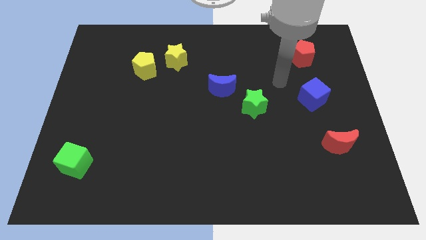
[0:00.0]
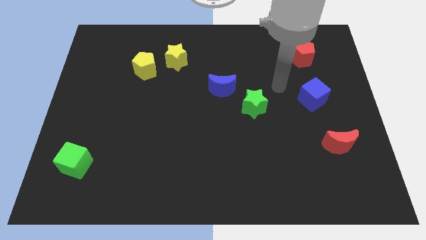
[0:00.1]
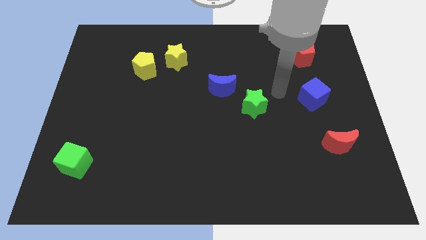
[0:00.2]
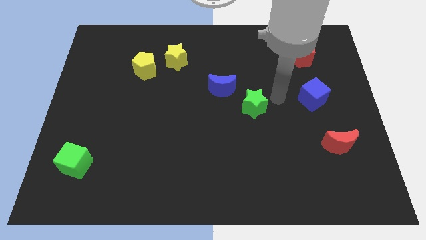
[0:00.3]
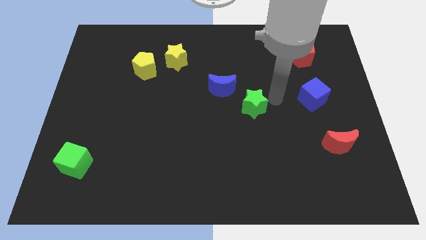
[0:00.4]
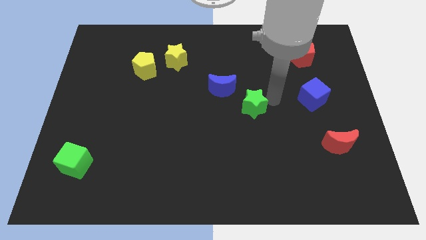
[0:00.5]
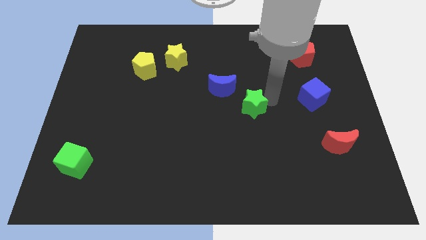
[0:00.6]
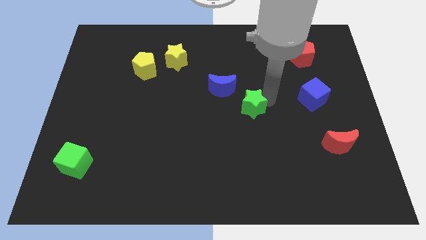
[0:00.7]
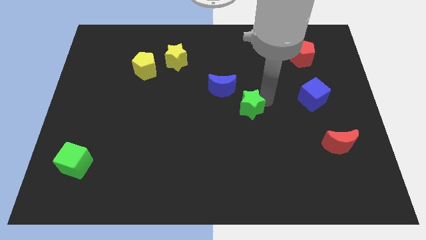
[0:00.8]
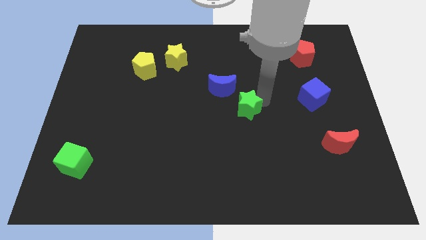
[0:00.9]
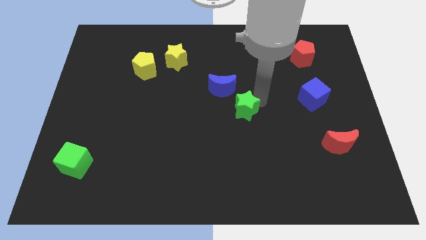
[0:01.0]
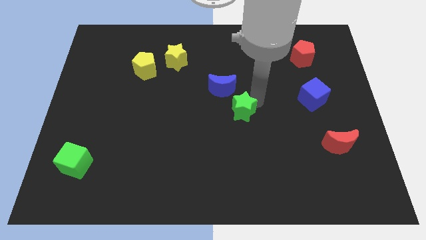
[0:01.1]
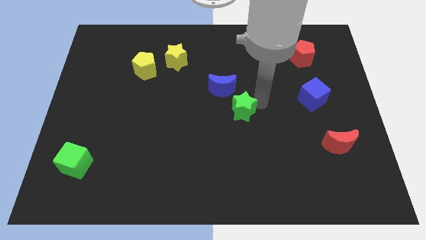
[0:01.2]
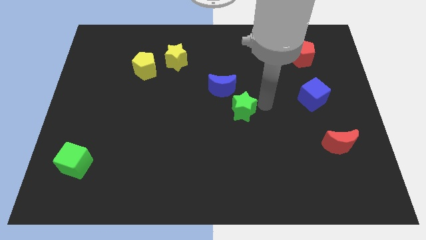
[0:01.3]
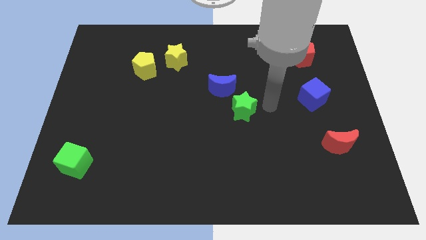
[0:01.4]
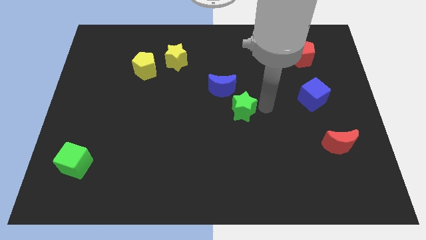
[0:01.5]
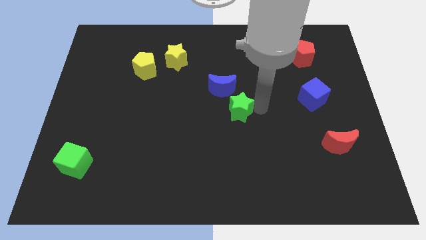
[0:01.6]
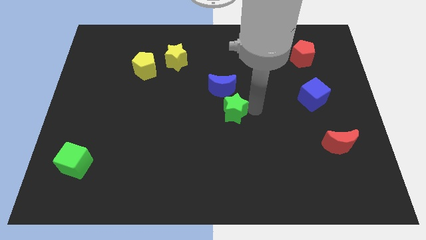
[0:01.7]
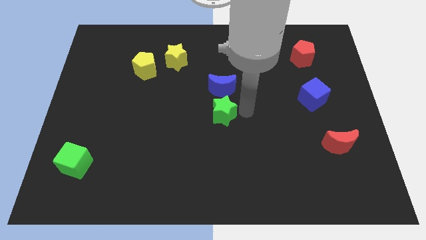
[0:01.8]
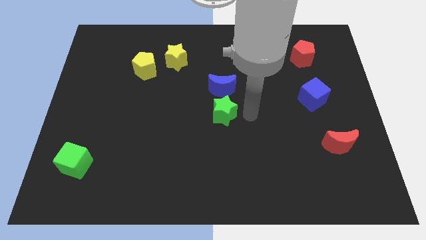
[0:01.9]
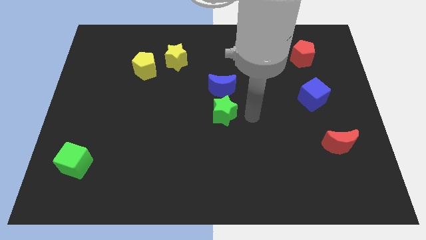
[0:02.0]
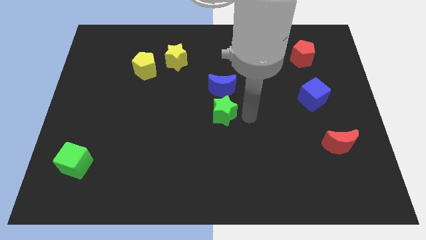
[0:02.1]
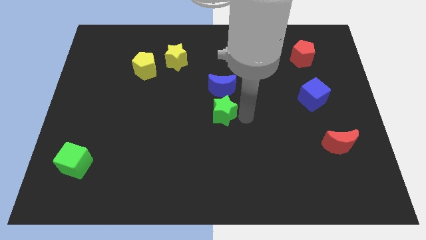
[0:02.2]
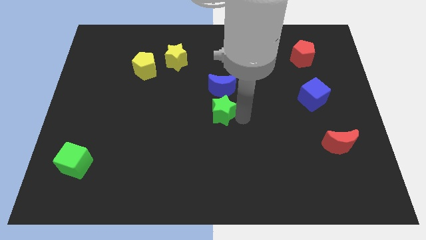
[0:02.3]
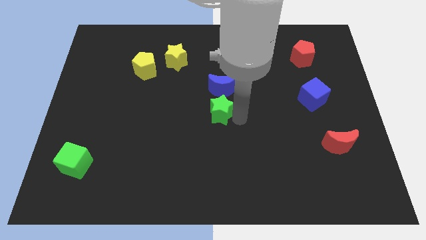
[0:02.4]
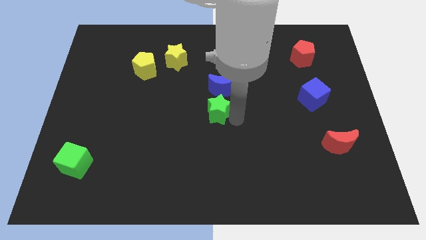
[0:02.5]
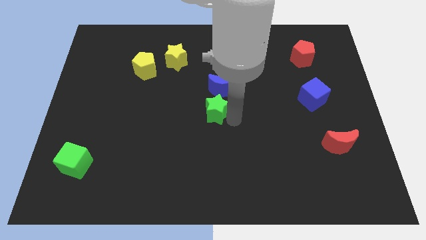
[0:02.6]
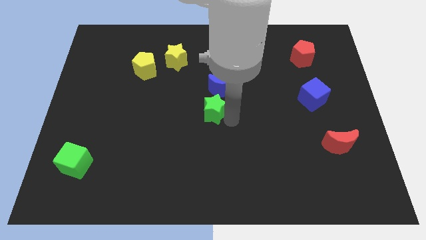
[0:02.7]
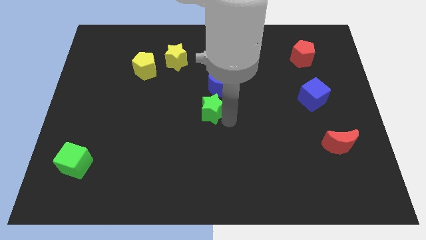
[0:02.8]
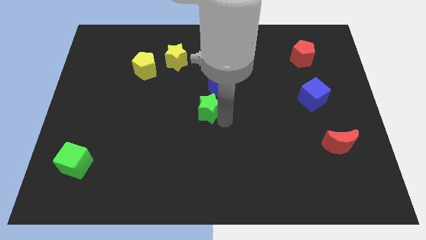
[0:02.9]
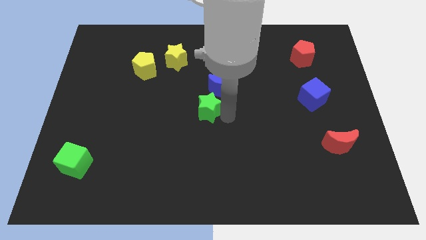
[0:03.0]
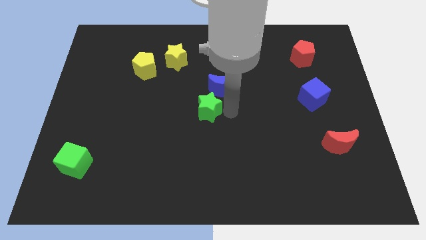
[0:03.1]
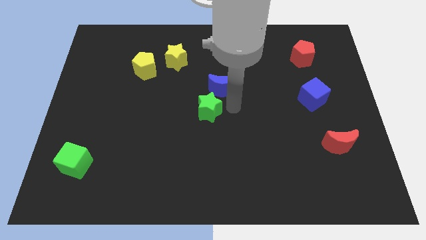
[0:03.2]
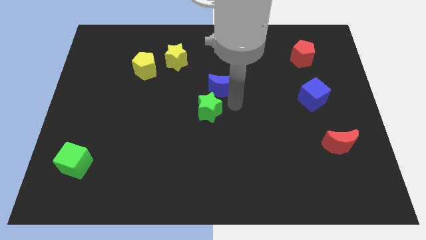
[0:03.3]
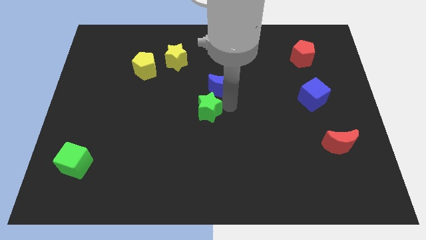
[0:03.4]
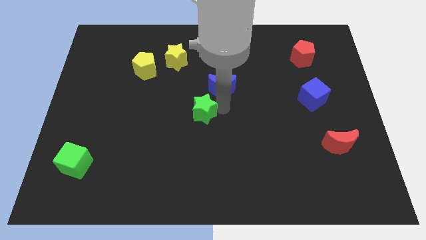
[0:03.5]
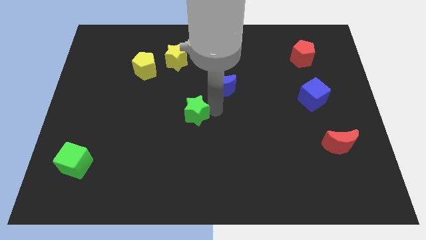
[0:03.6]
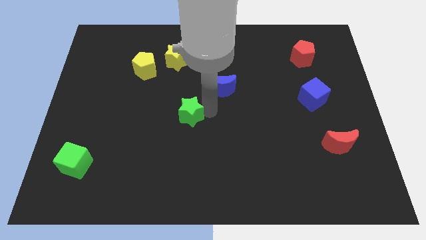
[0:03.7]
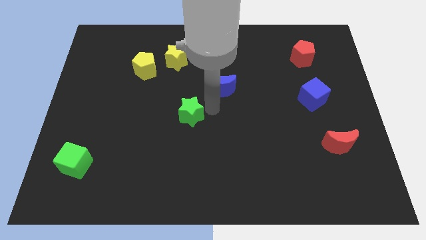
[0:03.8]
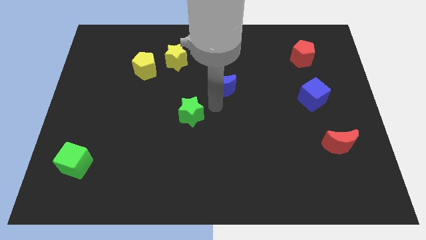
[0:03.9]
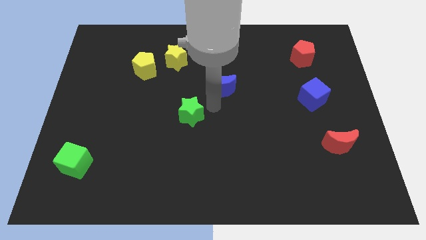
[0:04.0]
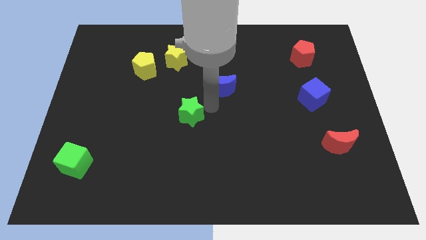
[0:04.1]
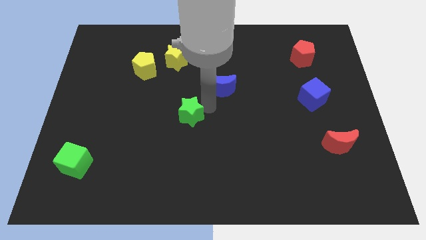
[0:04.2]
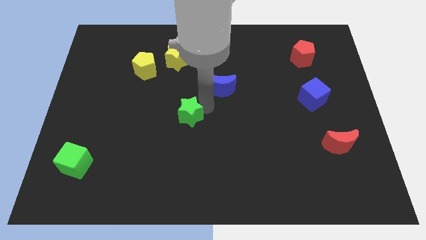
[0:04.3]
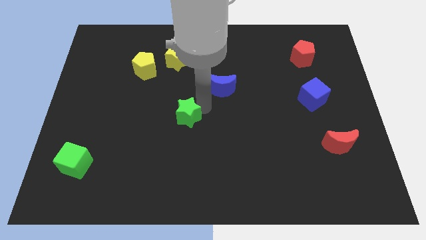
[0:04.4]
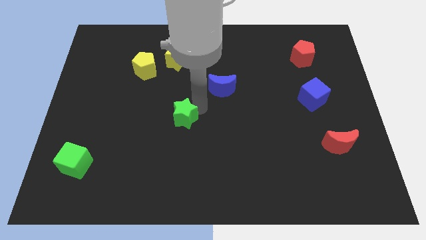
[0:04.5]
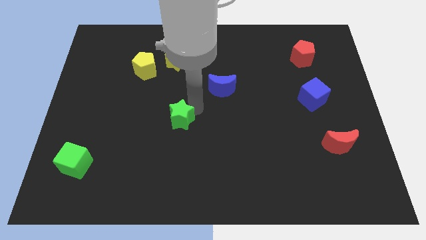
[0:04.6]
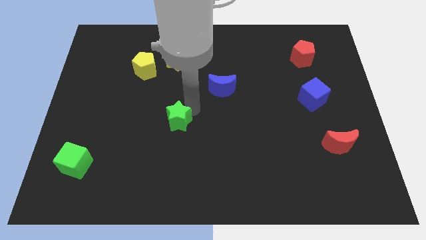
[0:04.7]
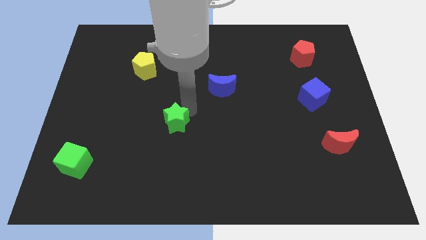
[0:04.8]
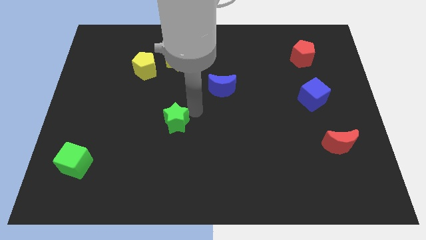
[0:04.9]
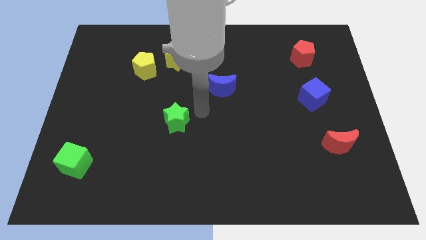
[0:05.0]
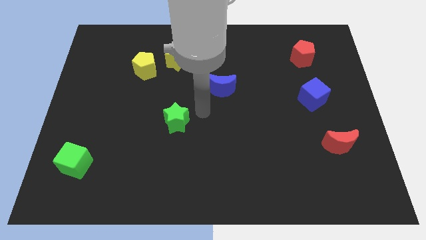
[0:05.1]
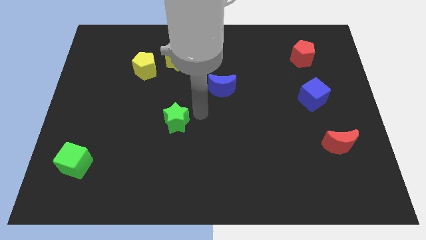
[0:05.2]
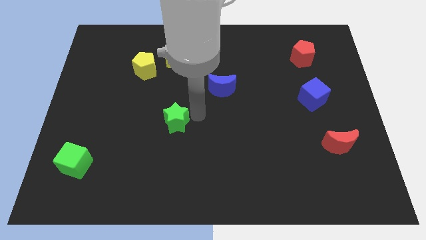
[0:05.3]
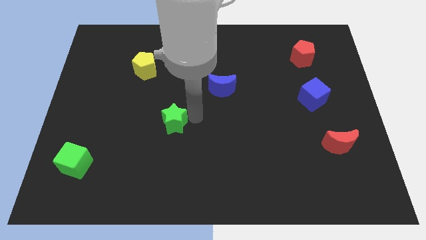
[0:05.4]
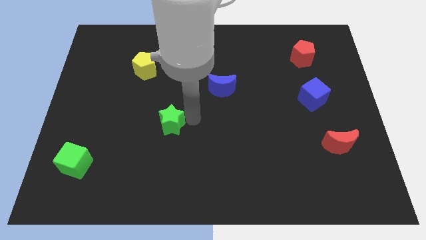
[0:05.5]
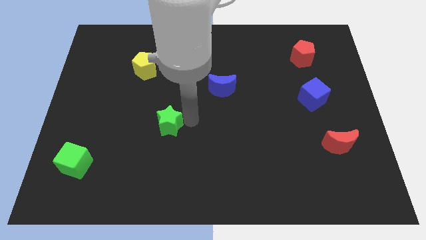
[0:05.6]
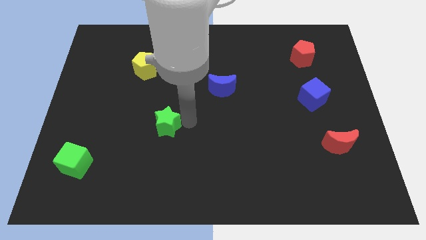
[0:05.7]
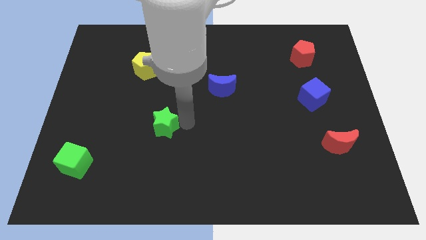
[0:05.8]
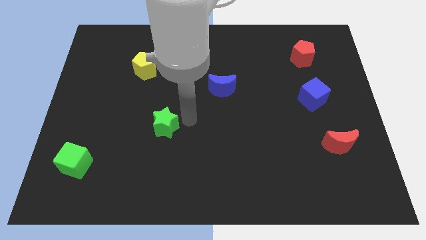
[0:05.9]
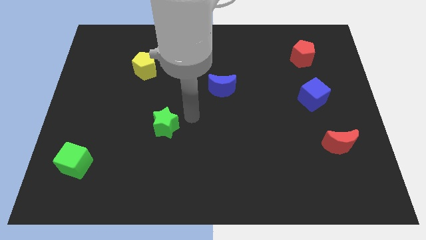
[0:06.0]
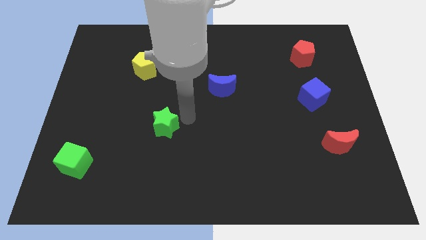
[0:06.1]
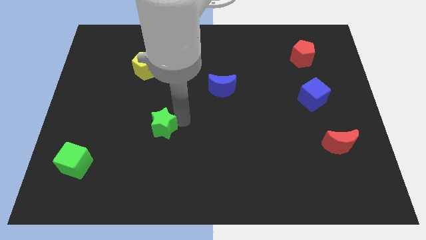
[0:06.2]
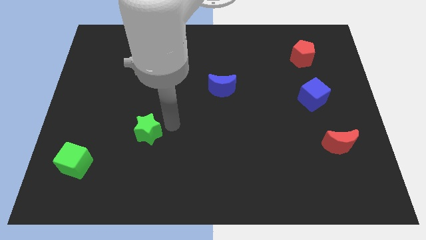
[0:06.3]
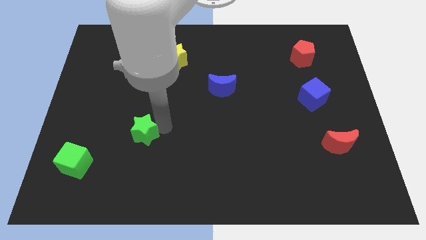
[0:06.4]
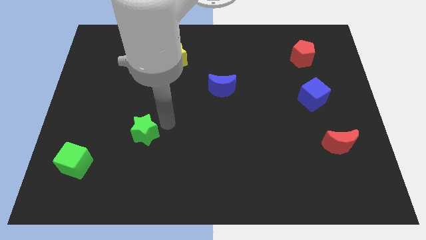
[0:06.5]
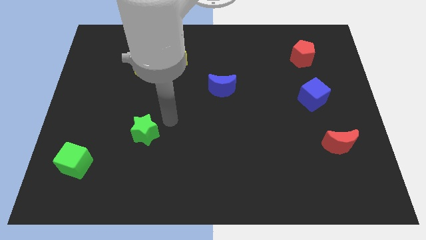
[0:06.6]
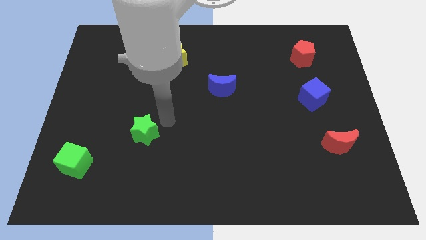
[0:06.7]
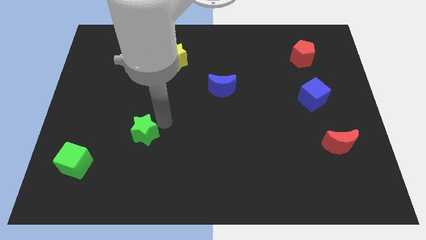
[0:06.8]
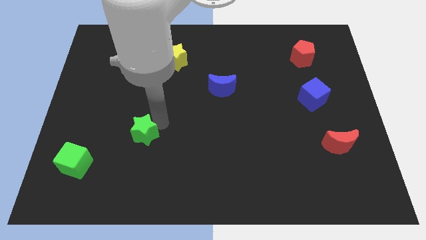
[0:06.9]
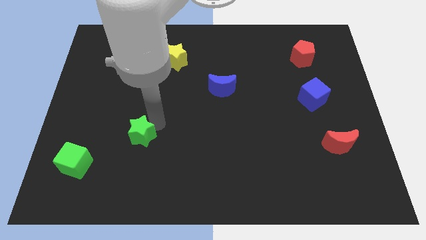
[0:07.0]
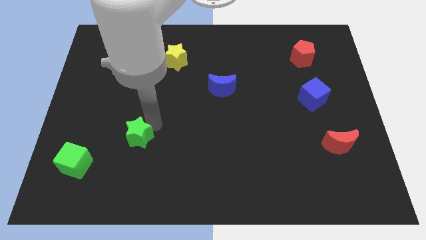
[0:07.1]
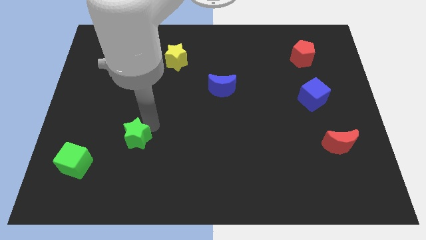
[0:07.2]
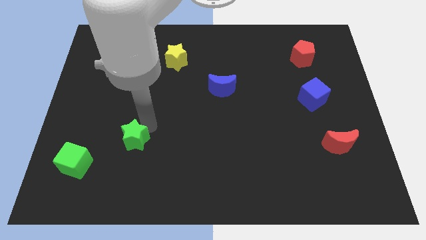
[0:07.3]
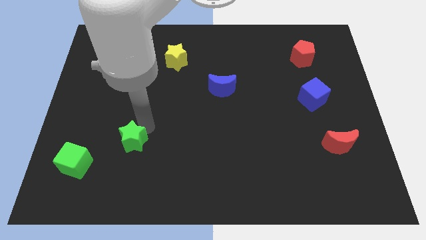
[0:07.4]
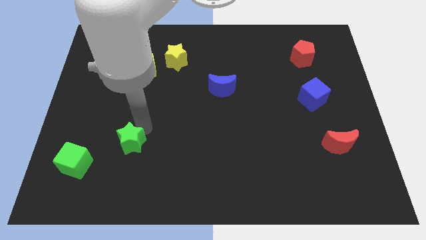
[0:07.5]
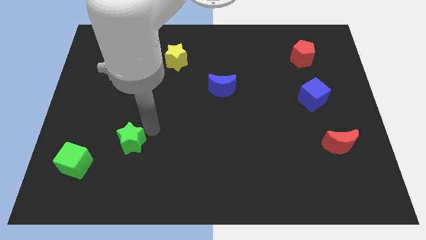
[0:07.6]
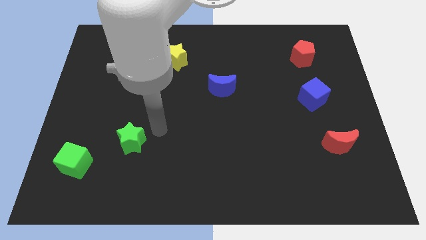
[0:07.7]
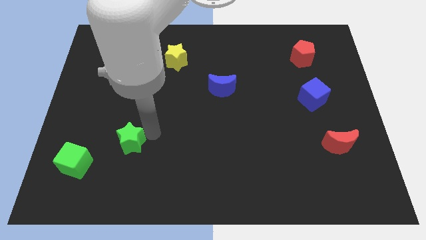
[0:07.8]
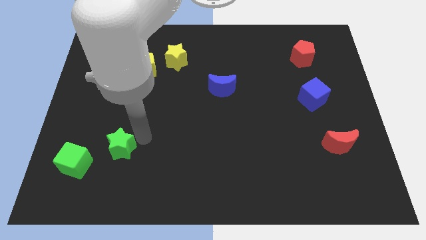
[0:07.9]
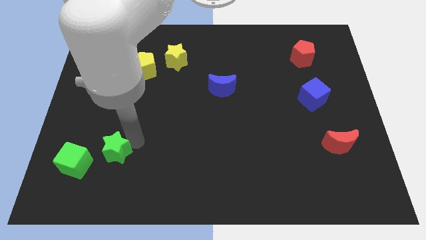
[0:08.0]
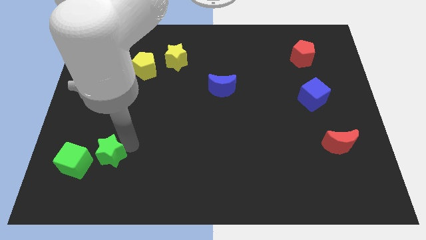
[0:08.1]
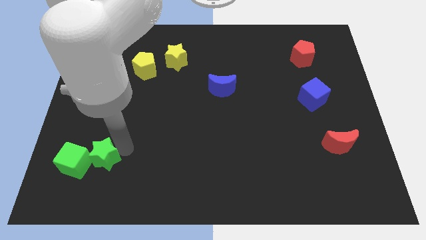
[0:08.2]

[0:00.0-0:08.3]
push the green star close to the green cube
